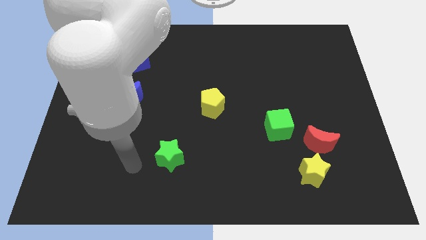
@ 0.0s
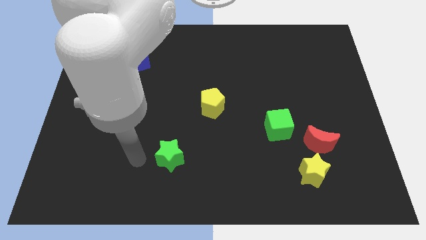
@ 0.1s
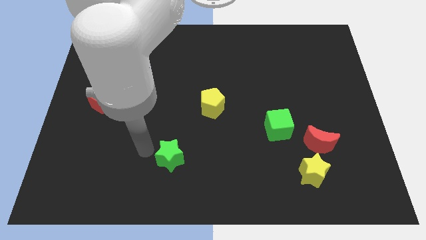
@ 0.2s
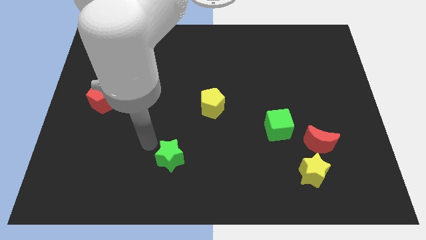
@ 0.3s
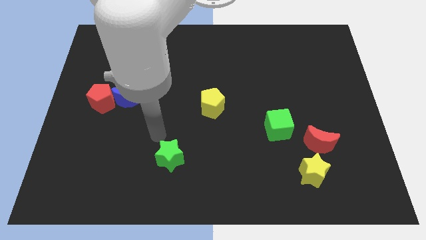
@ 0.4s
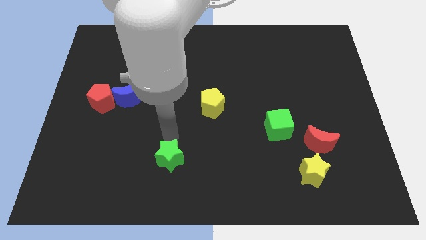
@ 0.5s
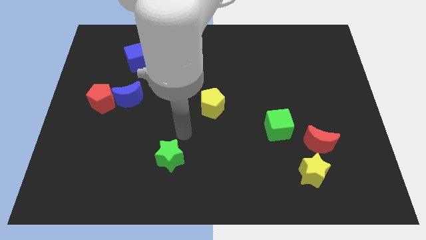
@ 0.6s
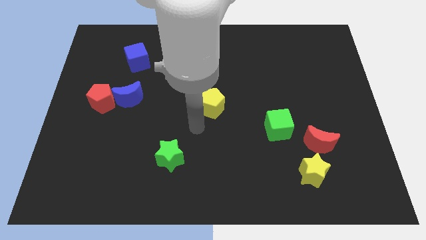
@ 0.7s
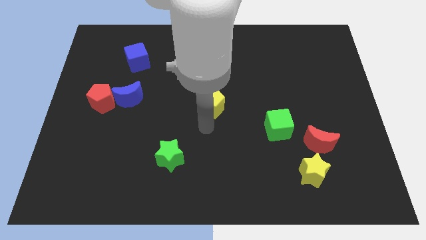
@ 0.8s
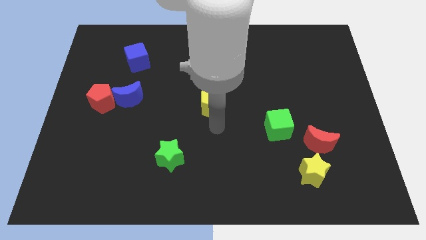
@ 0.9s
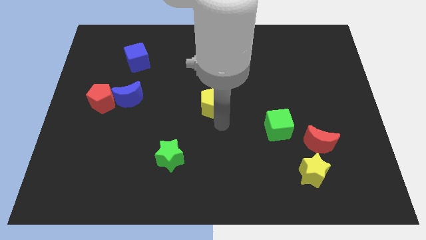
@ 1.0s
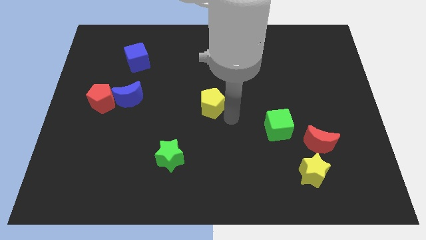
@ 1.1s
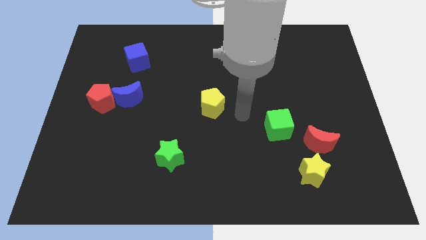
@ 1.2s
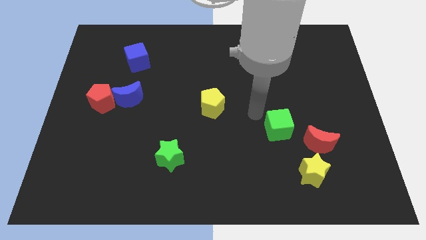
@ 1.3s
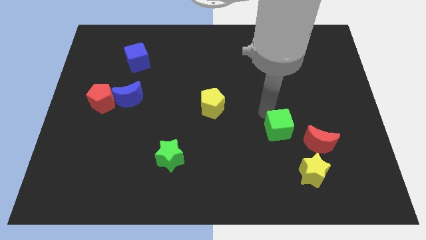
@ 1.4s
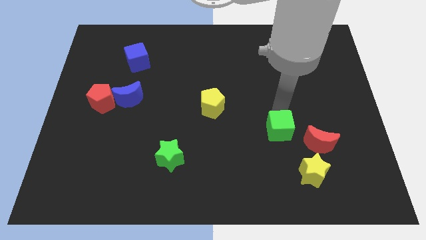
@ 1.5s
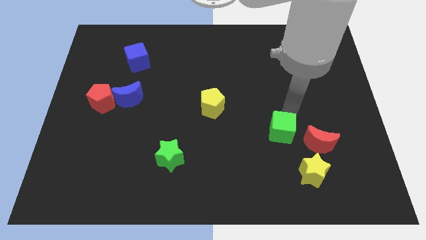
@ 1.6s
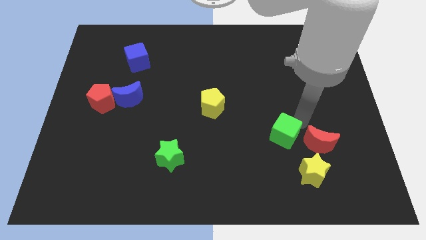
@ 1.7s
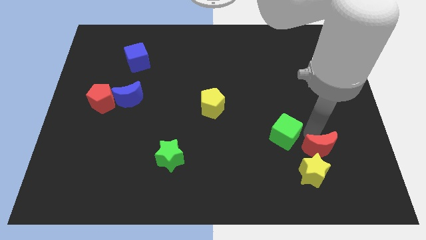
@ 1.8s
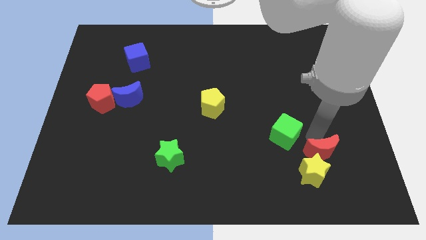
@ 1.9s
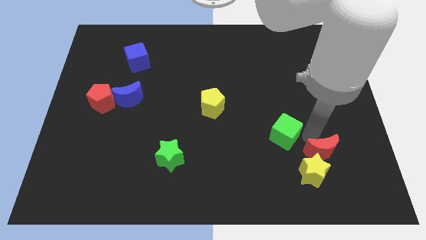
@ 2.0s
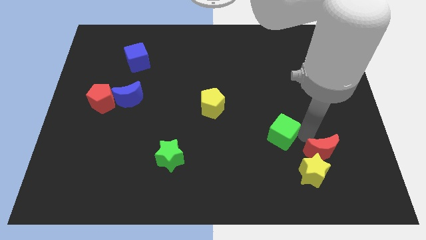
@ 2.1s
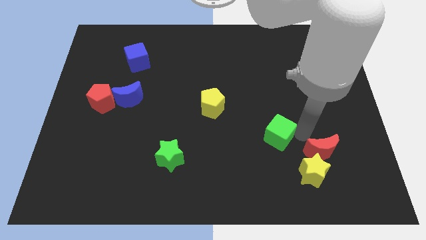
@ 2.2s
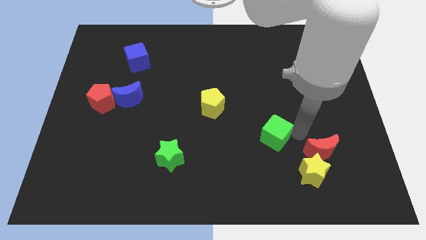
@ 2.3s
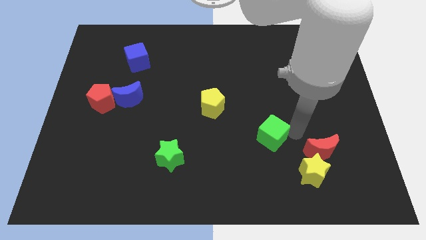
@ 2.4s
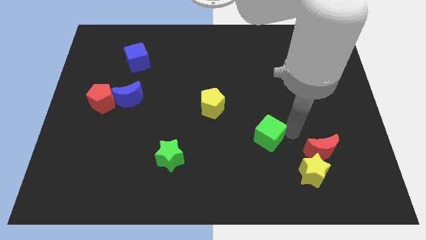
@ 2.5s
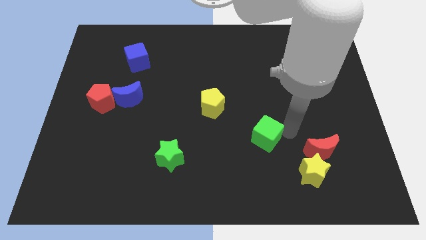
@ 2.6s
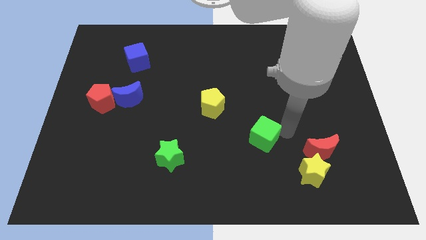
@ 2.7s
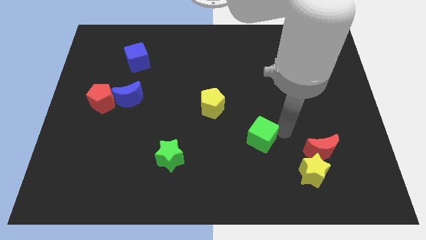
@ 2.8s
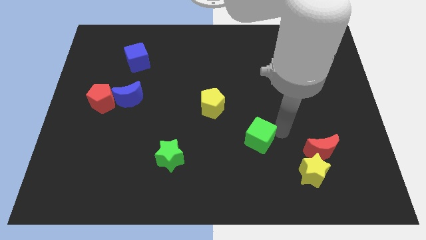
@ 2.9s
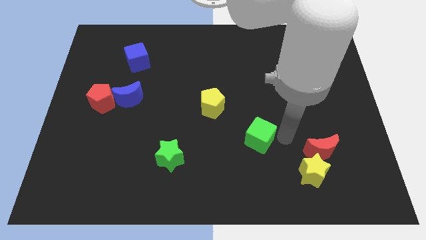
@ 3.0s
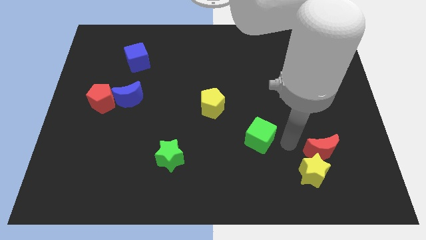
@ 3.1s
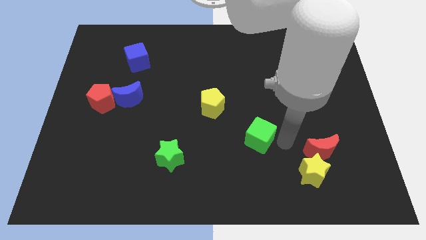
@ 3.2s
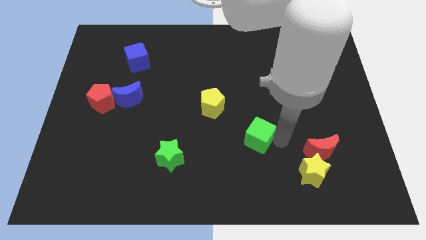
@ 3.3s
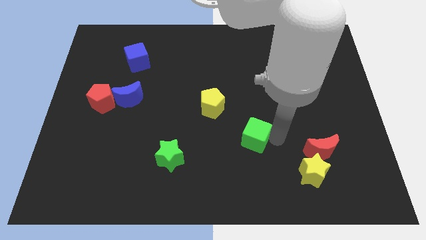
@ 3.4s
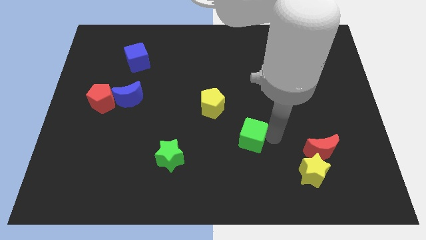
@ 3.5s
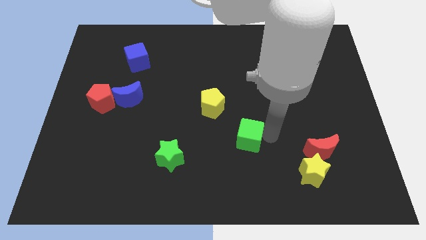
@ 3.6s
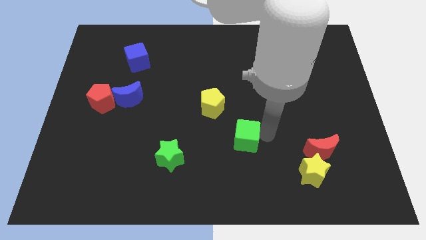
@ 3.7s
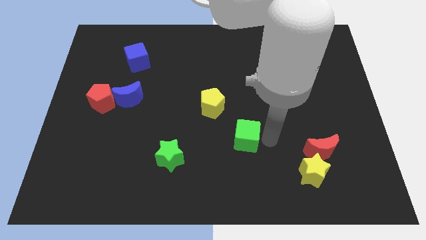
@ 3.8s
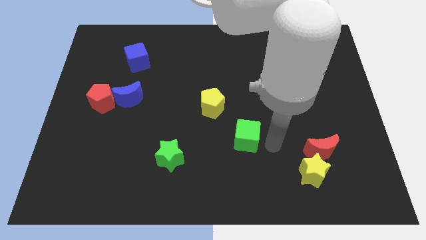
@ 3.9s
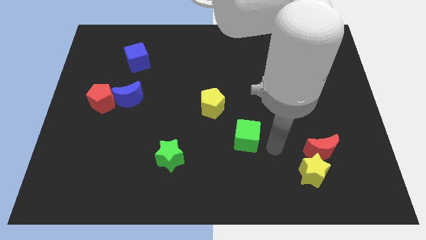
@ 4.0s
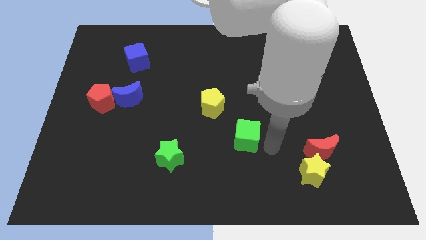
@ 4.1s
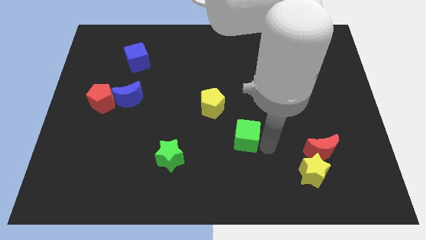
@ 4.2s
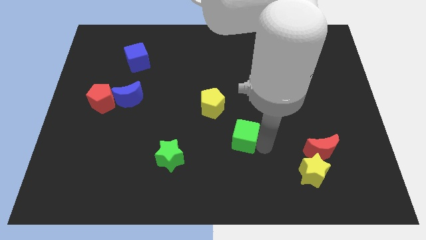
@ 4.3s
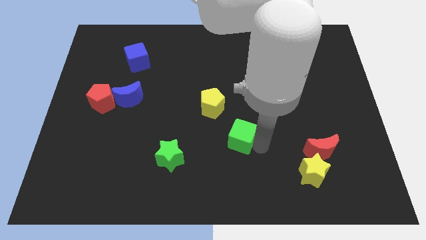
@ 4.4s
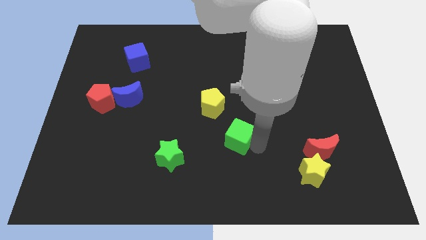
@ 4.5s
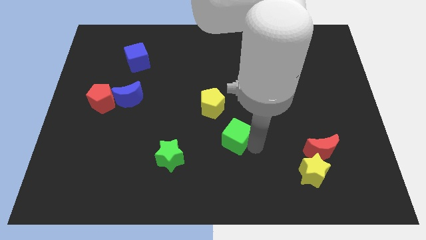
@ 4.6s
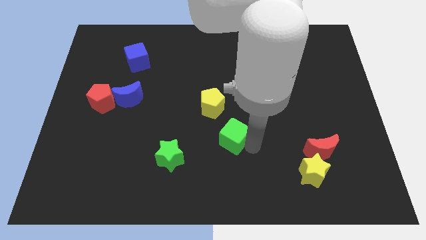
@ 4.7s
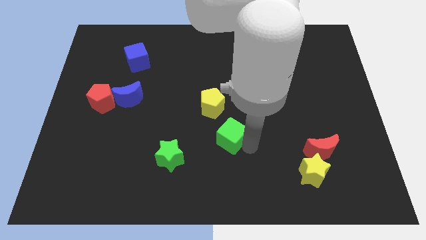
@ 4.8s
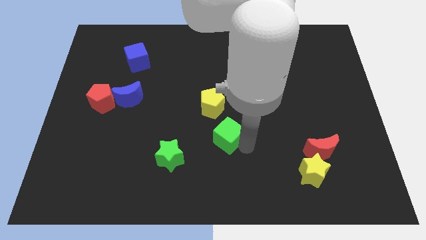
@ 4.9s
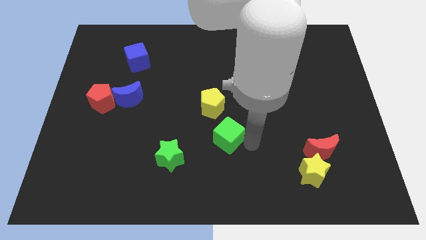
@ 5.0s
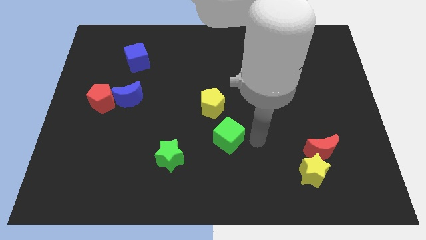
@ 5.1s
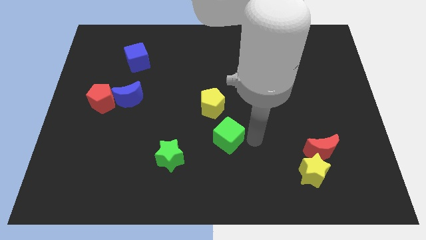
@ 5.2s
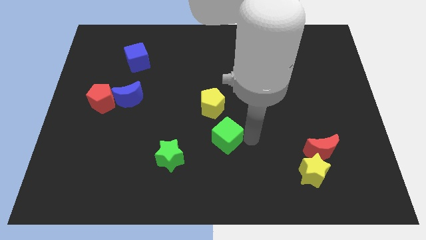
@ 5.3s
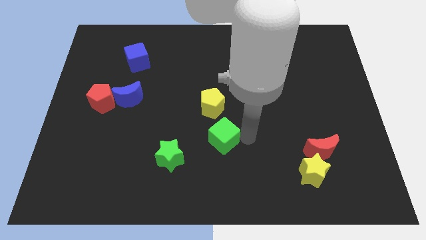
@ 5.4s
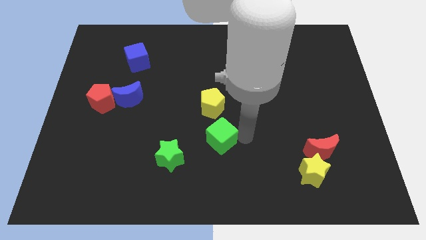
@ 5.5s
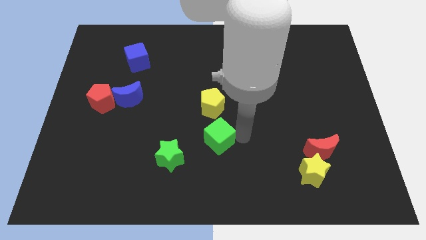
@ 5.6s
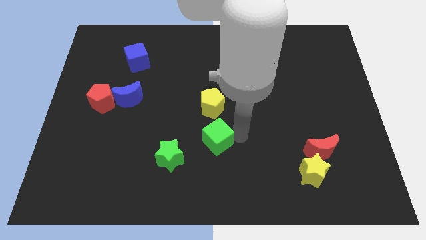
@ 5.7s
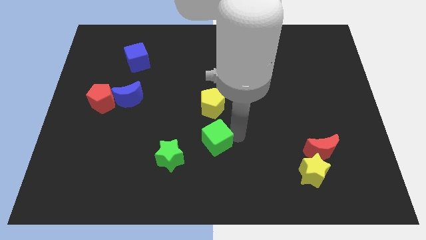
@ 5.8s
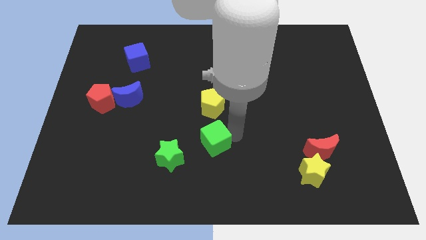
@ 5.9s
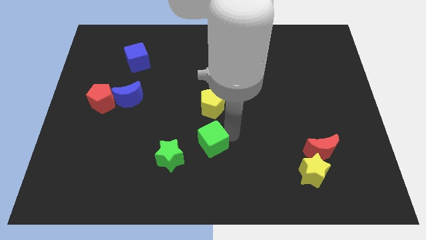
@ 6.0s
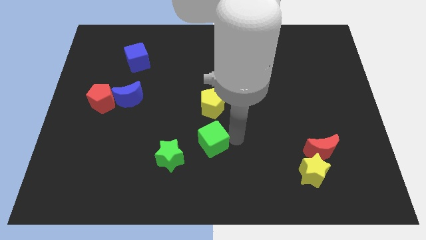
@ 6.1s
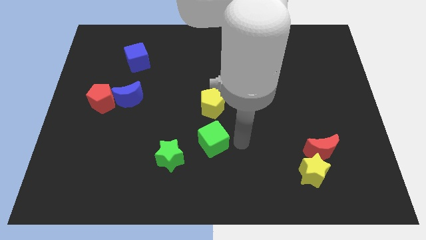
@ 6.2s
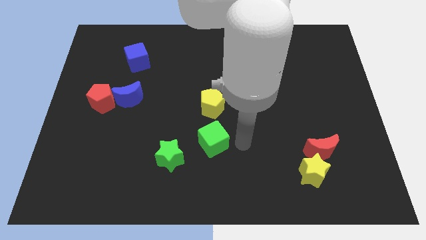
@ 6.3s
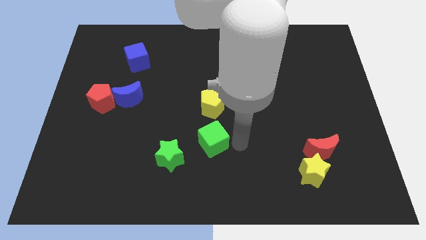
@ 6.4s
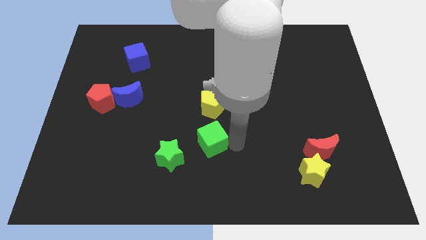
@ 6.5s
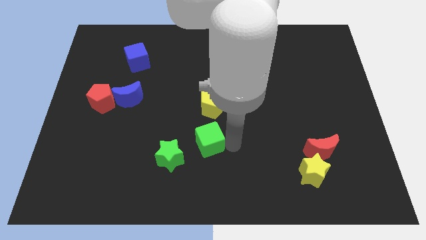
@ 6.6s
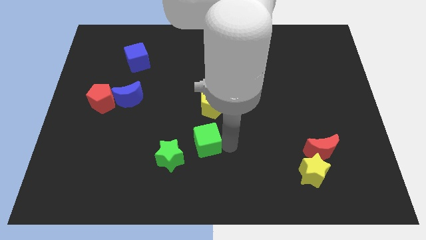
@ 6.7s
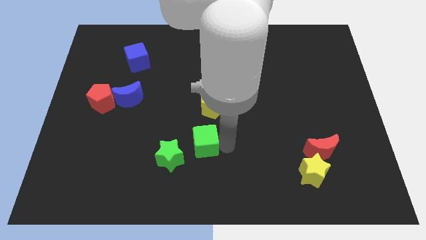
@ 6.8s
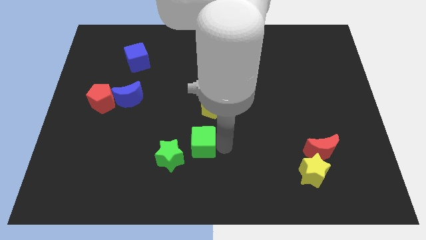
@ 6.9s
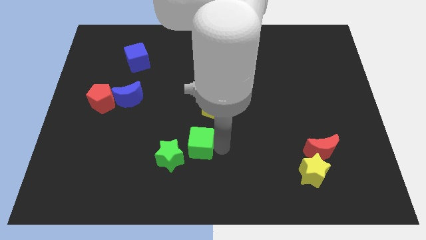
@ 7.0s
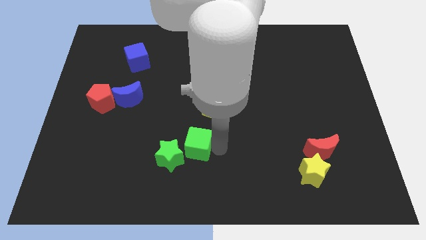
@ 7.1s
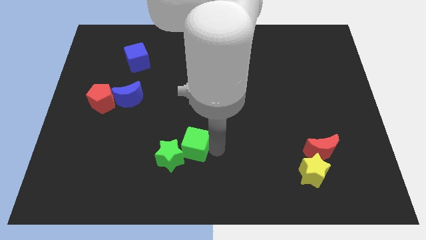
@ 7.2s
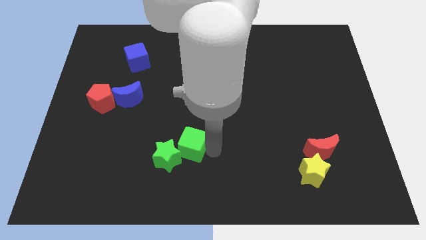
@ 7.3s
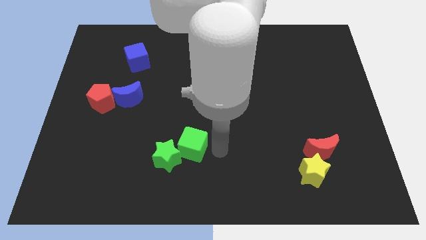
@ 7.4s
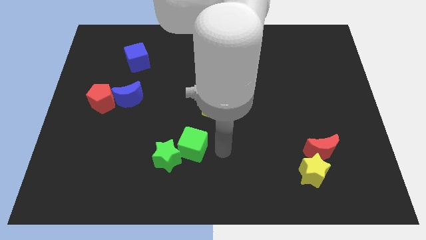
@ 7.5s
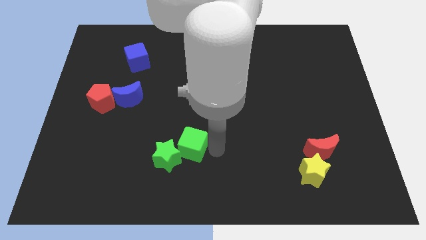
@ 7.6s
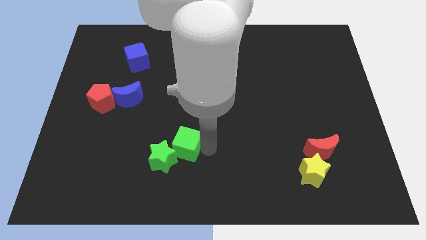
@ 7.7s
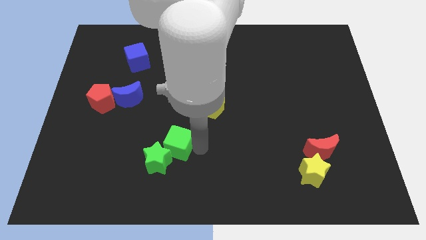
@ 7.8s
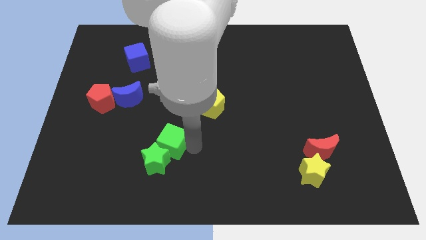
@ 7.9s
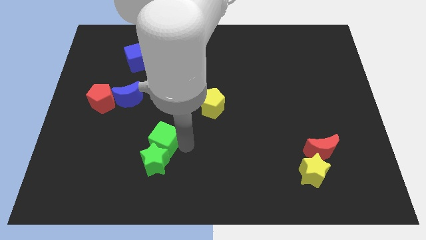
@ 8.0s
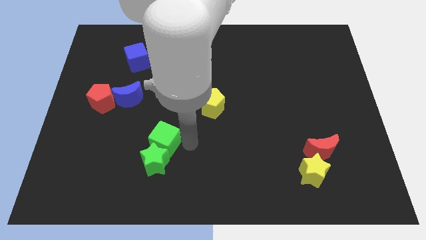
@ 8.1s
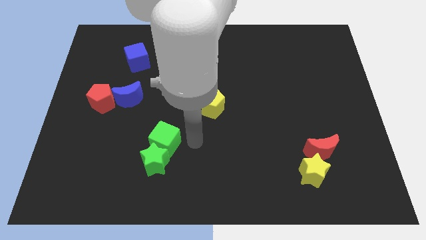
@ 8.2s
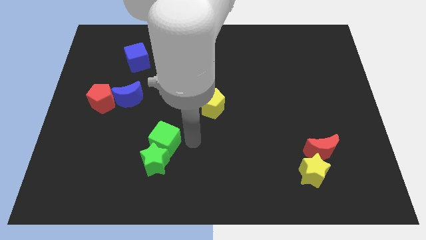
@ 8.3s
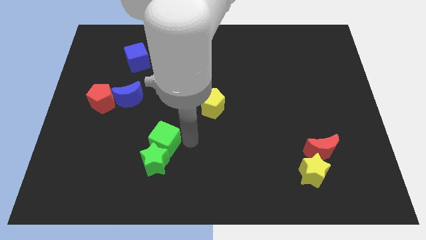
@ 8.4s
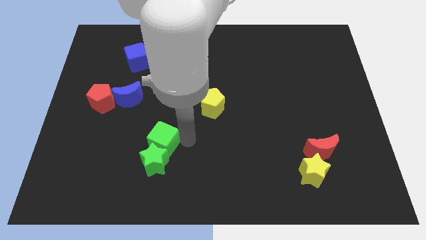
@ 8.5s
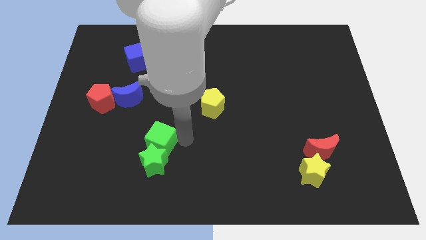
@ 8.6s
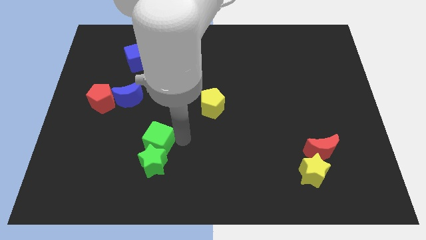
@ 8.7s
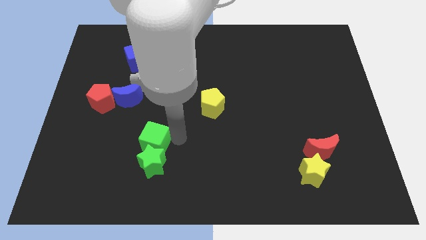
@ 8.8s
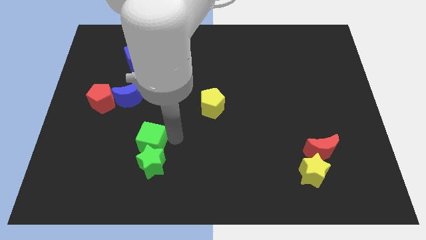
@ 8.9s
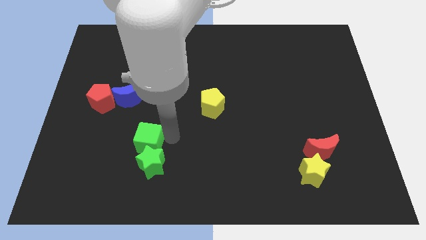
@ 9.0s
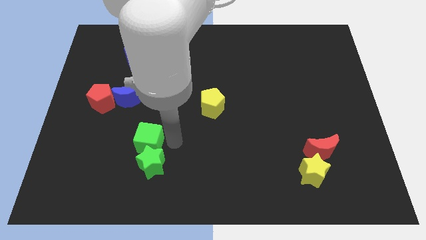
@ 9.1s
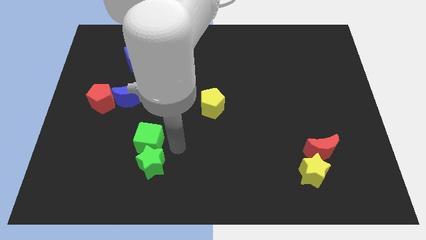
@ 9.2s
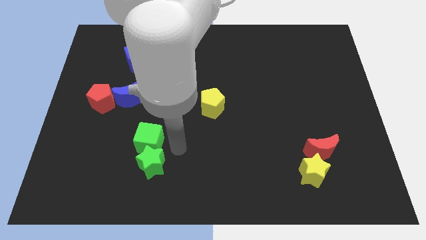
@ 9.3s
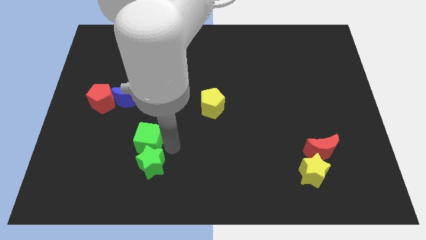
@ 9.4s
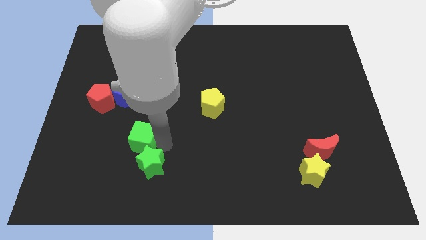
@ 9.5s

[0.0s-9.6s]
push the green cube to the bottom of the blue moon
